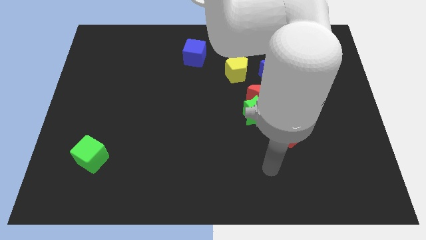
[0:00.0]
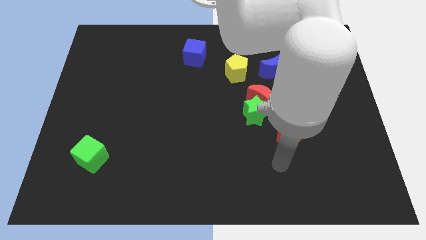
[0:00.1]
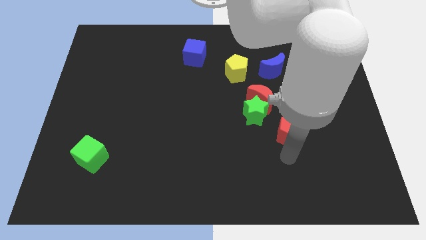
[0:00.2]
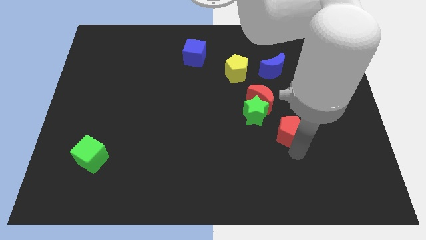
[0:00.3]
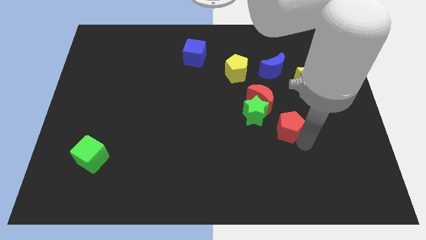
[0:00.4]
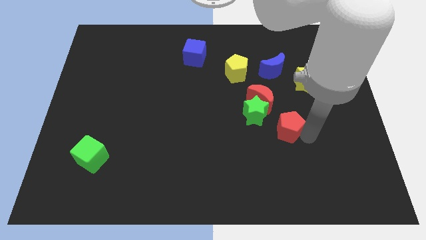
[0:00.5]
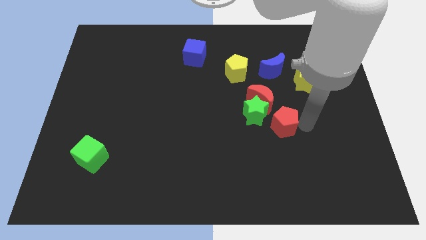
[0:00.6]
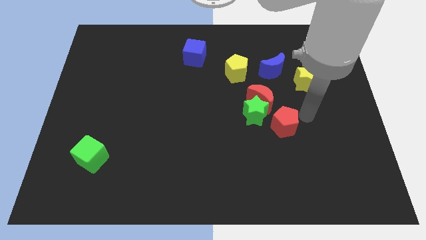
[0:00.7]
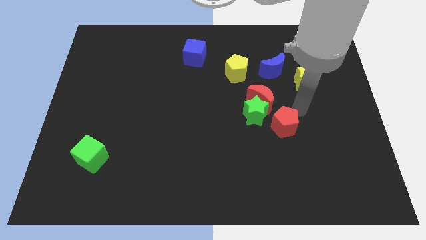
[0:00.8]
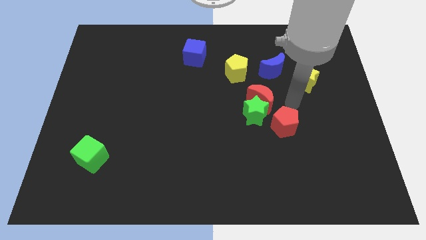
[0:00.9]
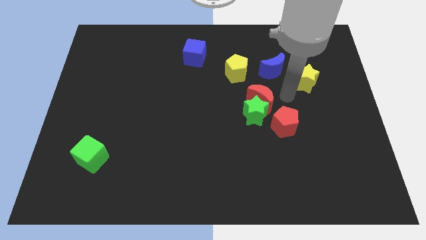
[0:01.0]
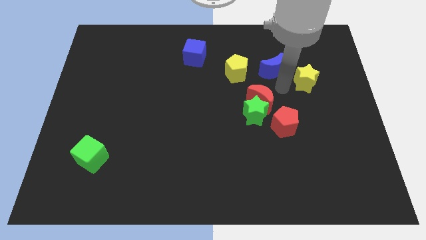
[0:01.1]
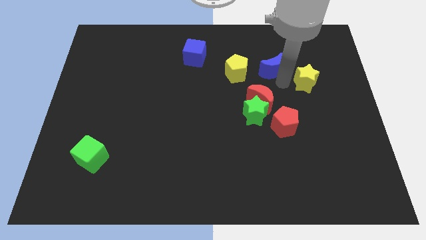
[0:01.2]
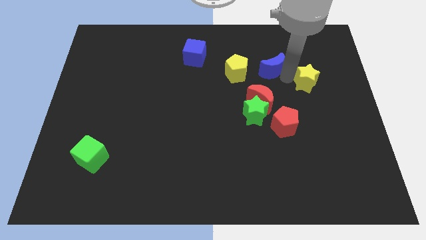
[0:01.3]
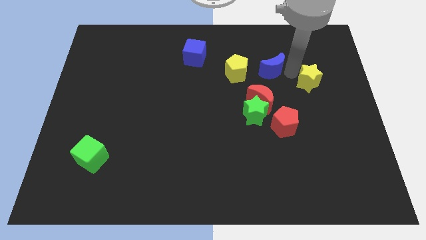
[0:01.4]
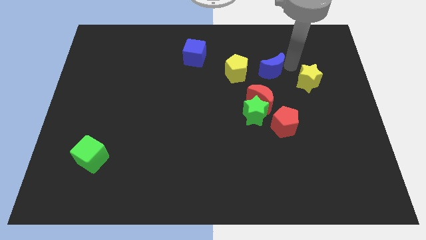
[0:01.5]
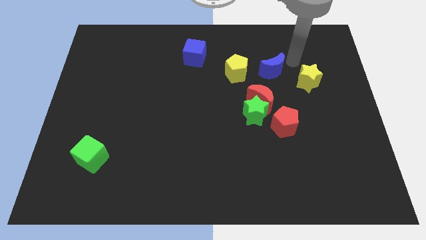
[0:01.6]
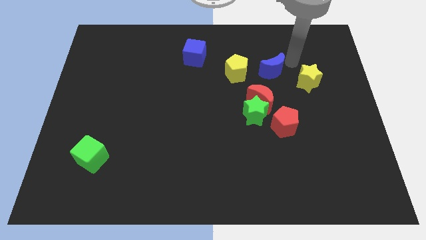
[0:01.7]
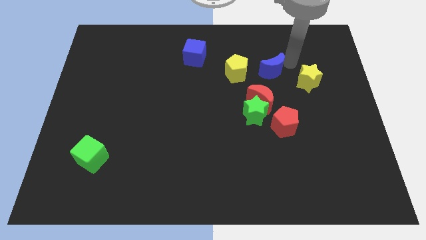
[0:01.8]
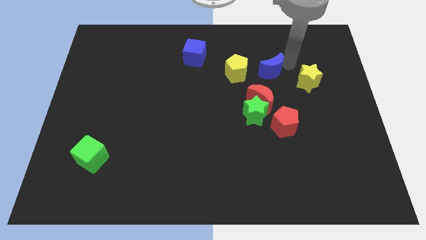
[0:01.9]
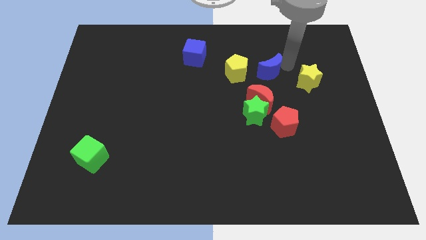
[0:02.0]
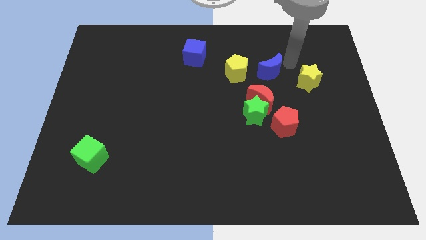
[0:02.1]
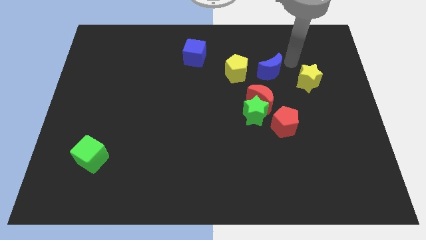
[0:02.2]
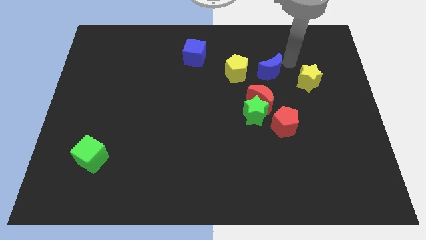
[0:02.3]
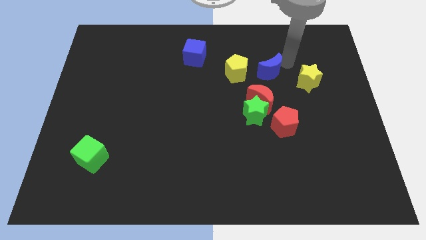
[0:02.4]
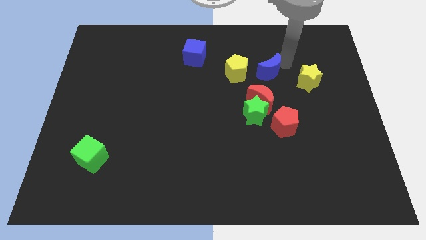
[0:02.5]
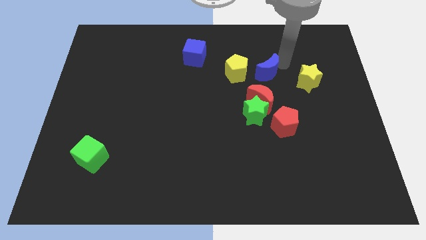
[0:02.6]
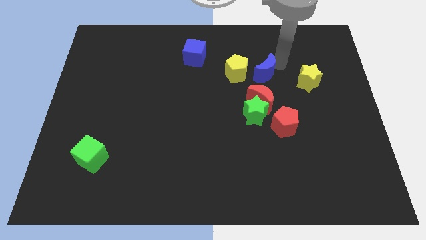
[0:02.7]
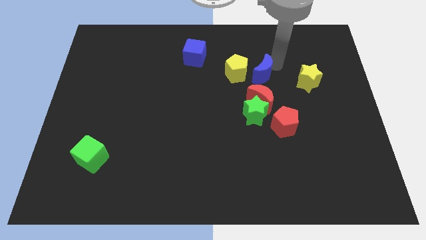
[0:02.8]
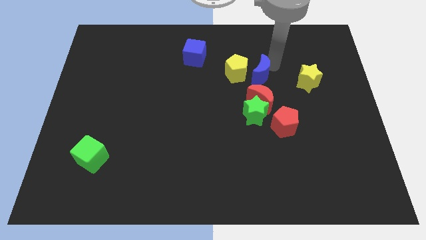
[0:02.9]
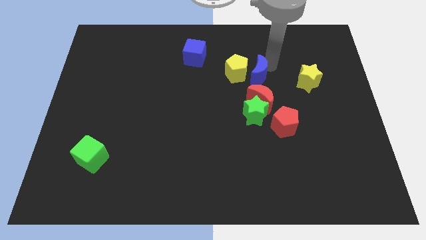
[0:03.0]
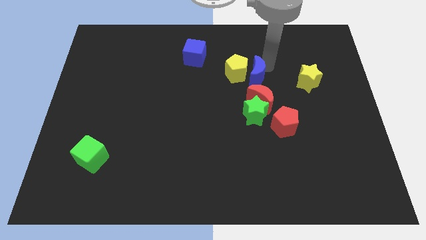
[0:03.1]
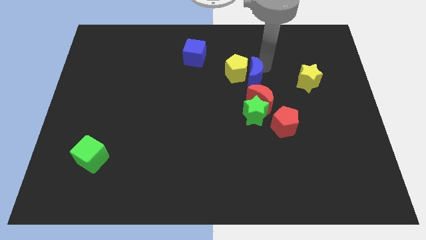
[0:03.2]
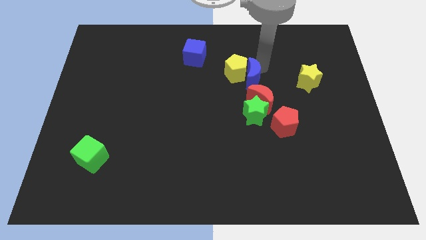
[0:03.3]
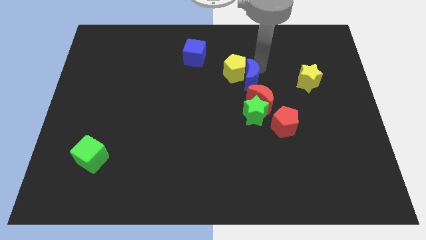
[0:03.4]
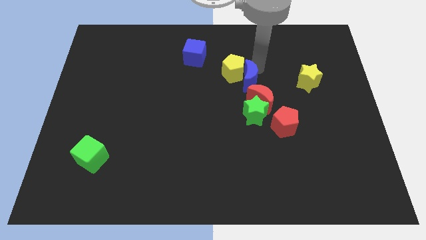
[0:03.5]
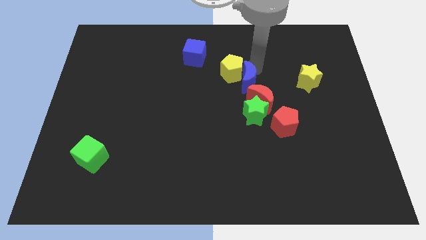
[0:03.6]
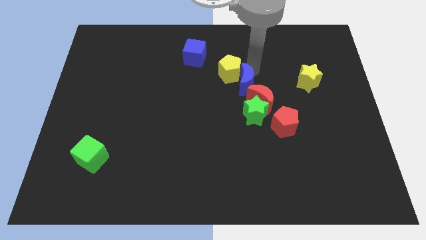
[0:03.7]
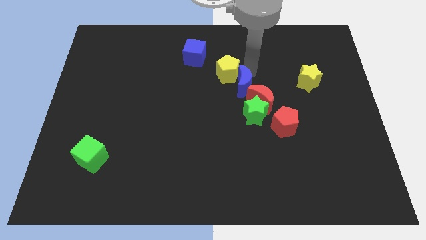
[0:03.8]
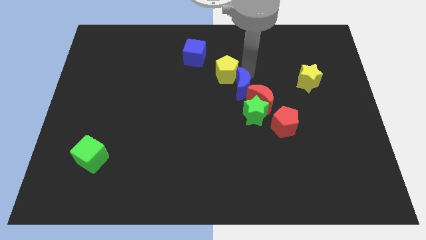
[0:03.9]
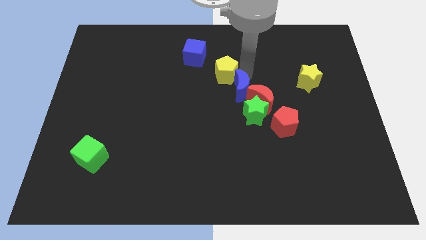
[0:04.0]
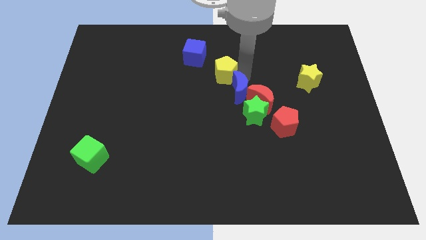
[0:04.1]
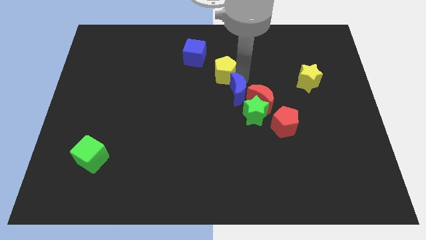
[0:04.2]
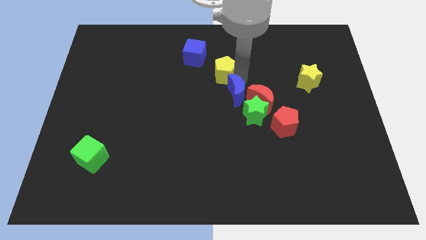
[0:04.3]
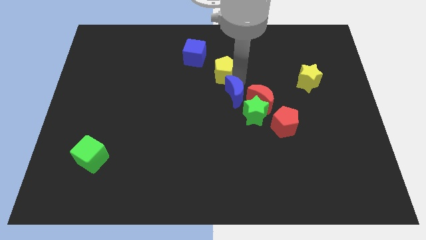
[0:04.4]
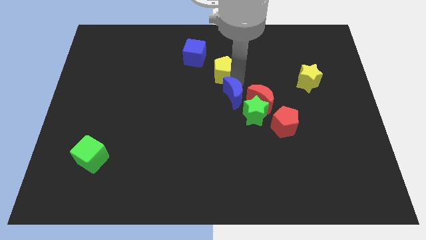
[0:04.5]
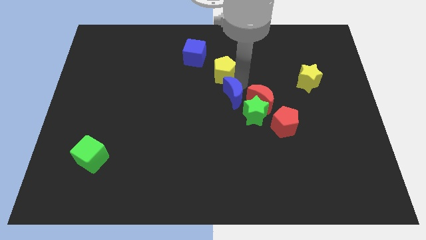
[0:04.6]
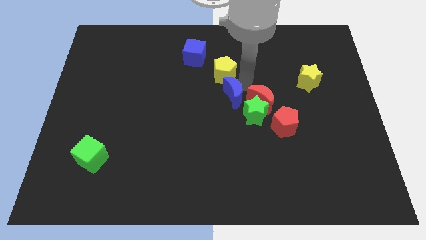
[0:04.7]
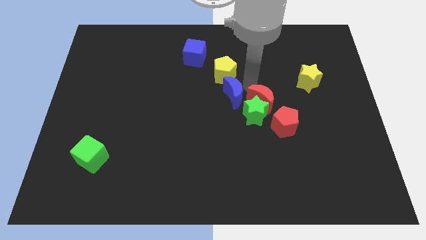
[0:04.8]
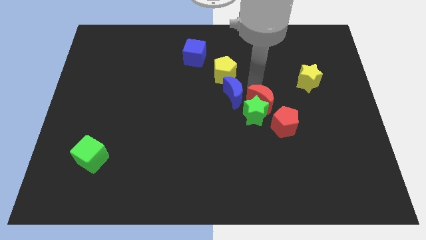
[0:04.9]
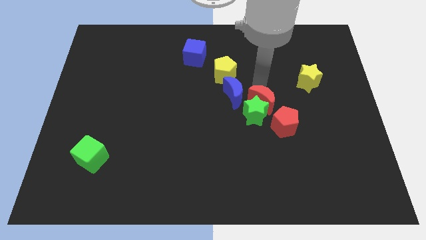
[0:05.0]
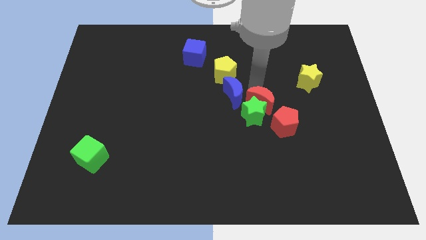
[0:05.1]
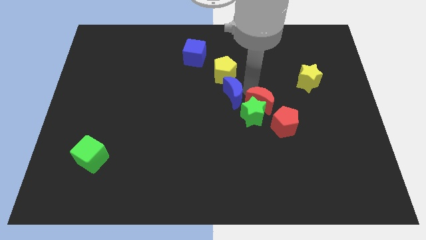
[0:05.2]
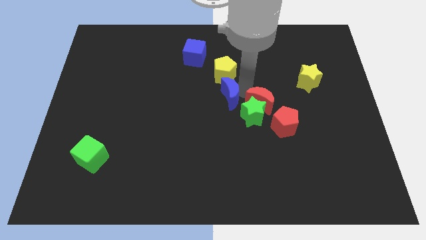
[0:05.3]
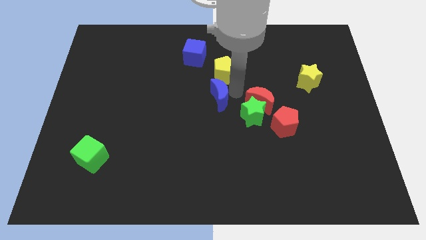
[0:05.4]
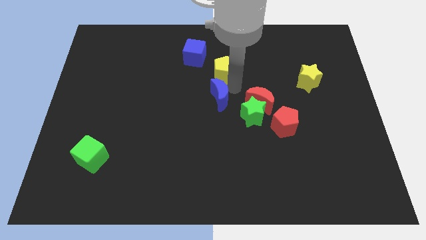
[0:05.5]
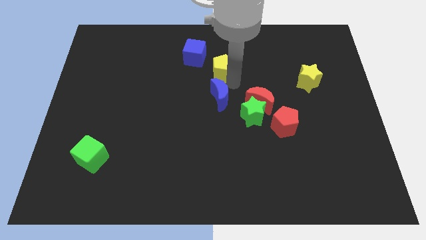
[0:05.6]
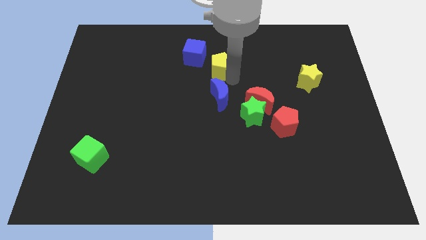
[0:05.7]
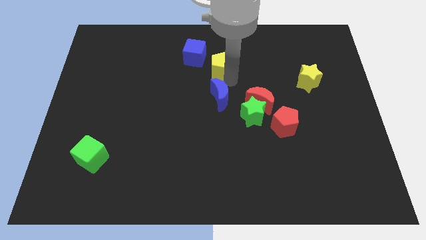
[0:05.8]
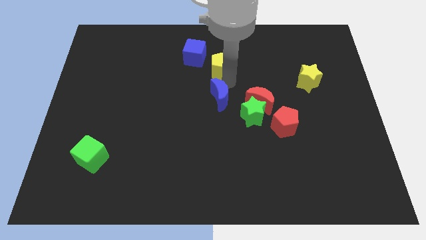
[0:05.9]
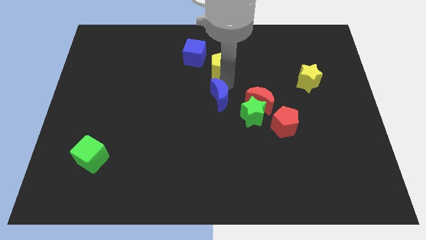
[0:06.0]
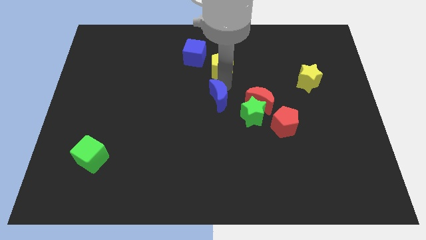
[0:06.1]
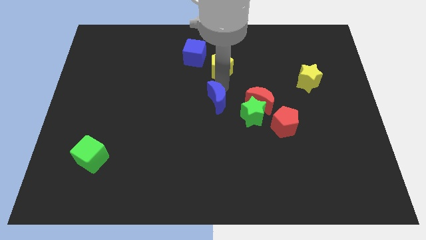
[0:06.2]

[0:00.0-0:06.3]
put the blue moon to the left of the green star

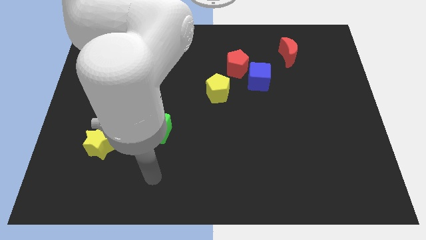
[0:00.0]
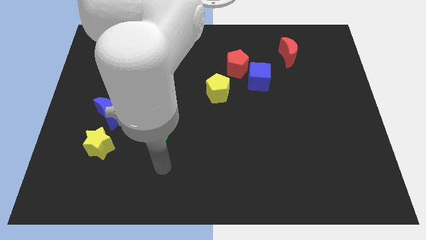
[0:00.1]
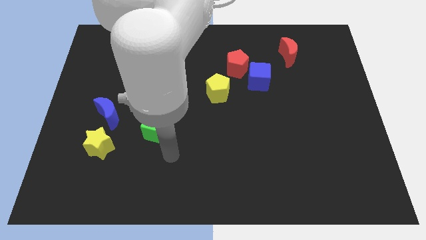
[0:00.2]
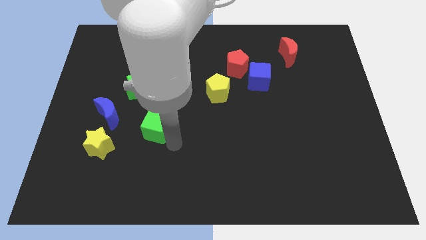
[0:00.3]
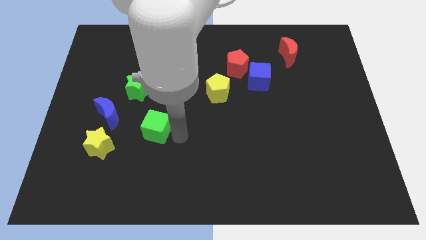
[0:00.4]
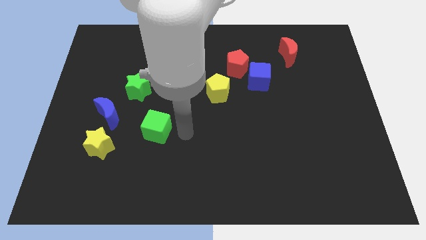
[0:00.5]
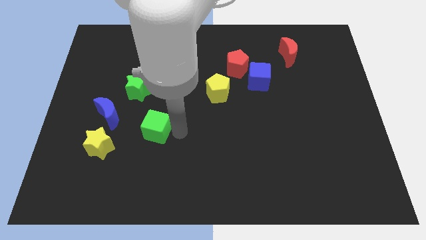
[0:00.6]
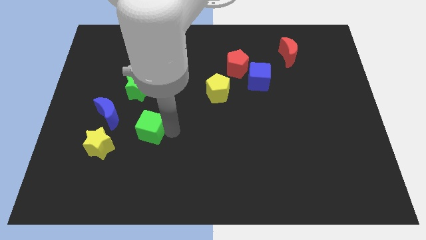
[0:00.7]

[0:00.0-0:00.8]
move the green cube below the green star
